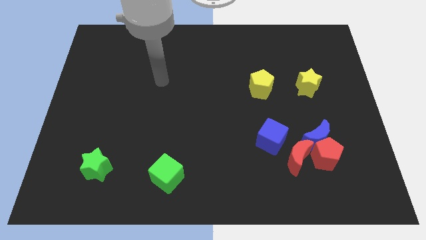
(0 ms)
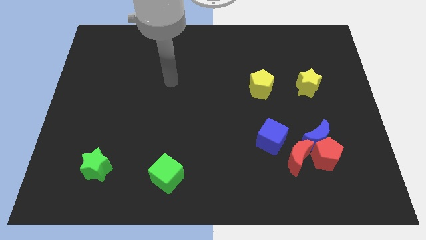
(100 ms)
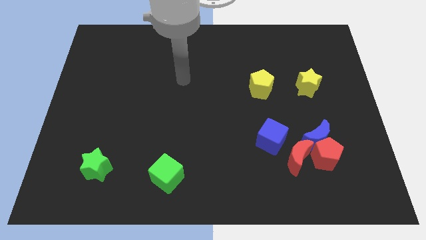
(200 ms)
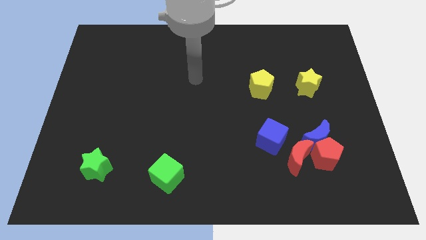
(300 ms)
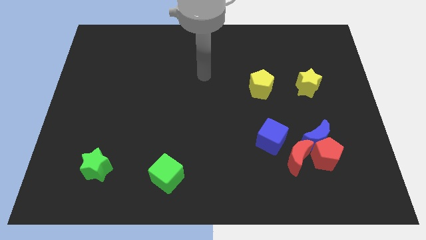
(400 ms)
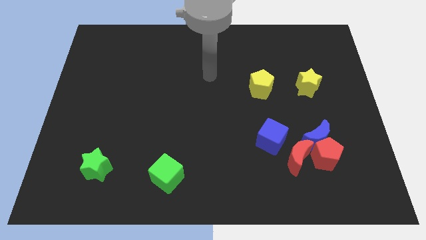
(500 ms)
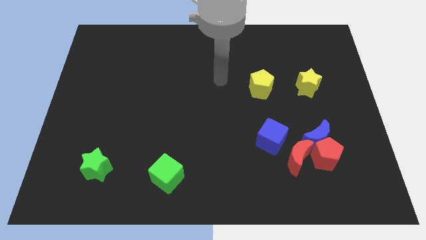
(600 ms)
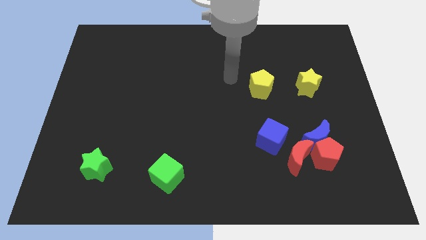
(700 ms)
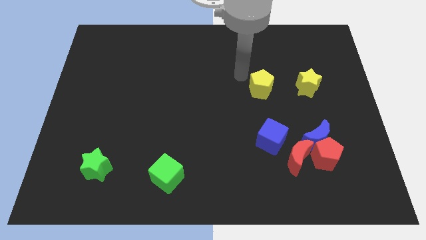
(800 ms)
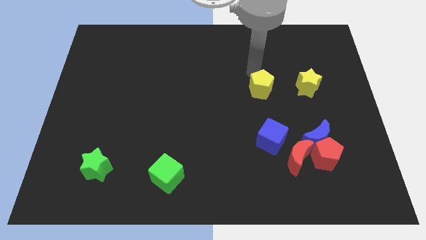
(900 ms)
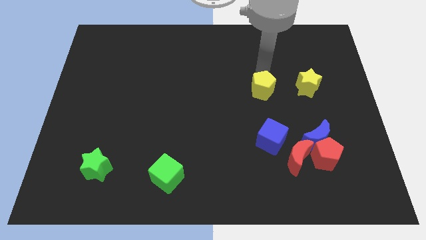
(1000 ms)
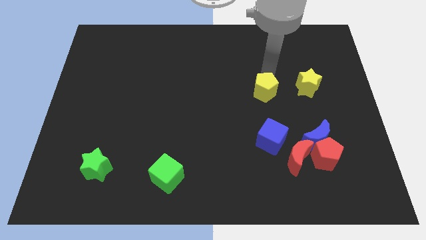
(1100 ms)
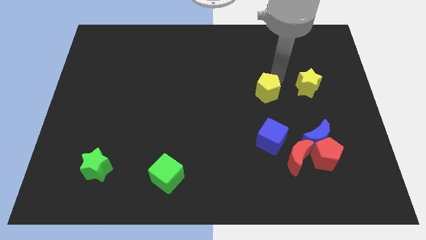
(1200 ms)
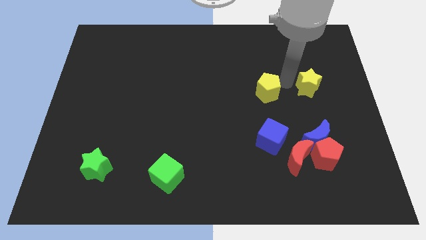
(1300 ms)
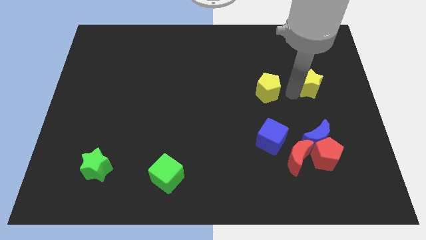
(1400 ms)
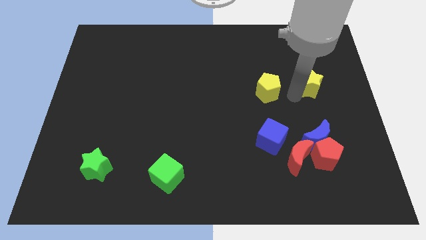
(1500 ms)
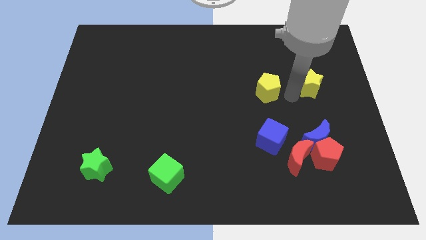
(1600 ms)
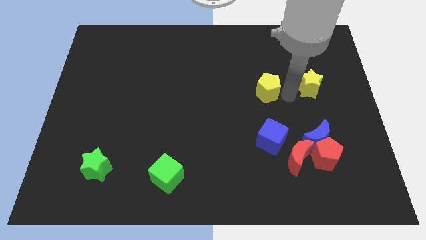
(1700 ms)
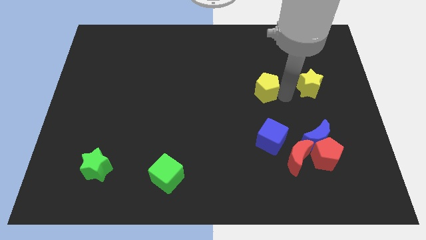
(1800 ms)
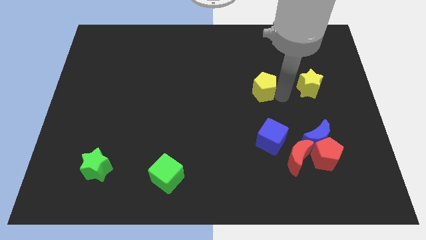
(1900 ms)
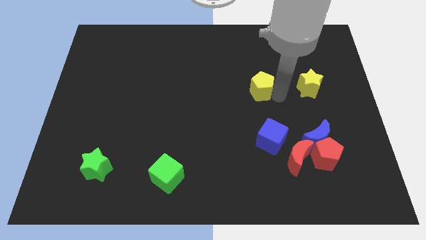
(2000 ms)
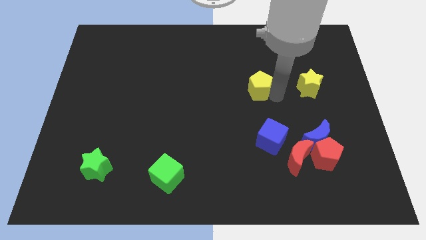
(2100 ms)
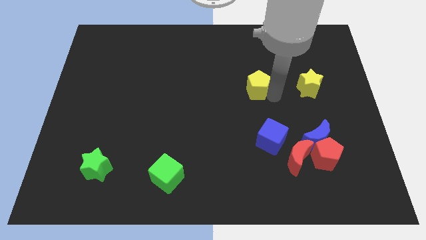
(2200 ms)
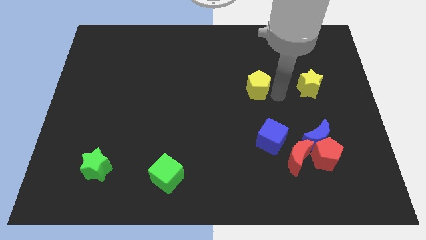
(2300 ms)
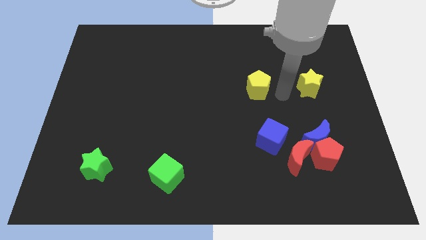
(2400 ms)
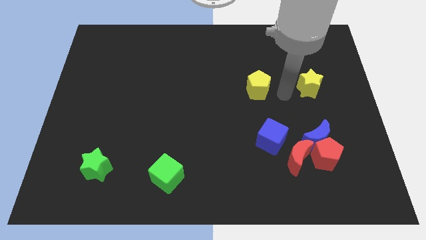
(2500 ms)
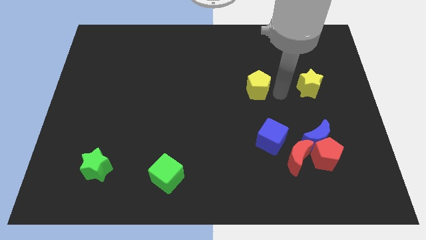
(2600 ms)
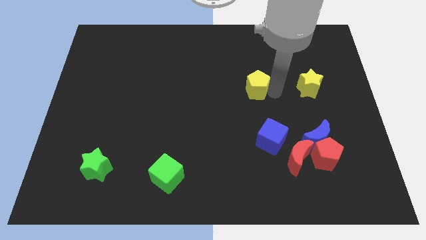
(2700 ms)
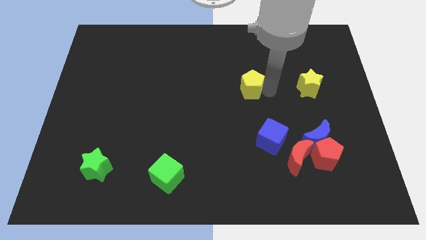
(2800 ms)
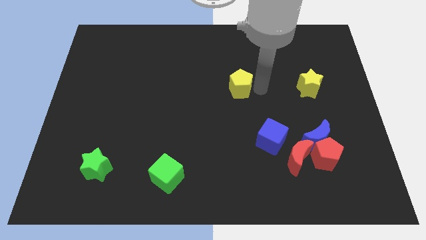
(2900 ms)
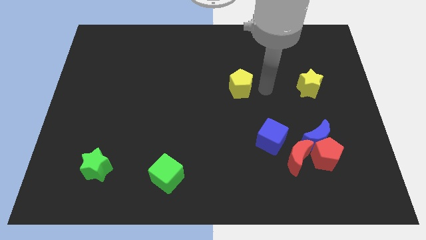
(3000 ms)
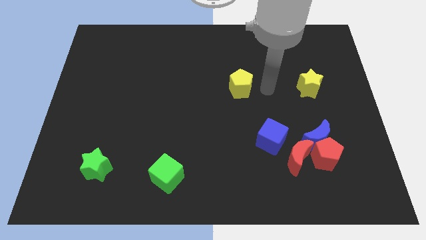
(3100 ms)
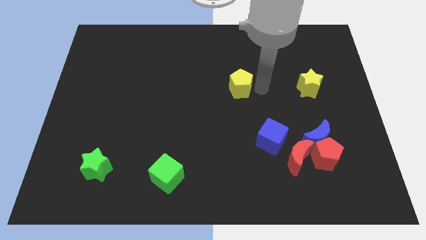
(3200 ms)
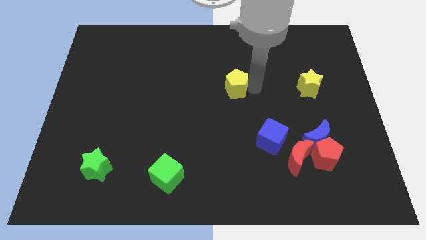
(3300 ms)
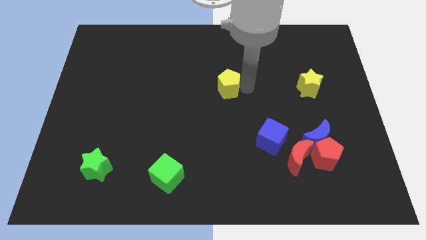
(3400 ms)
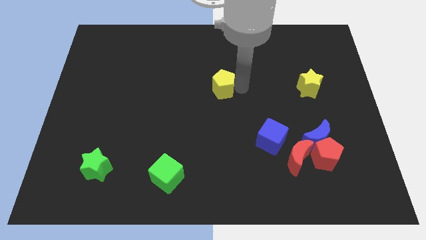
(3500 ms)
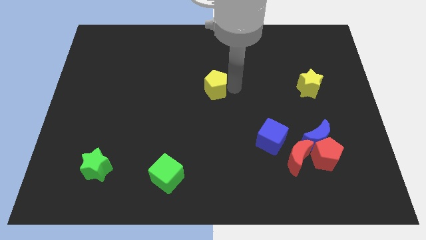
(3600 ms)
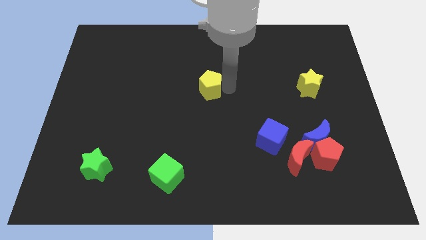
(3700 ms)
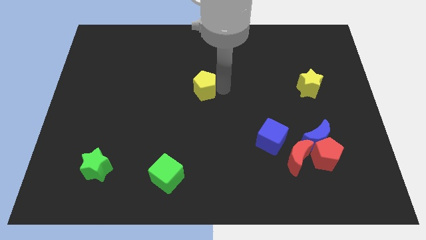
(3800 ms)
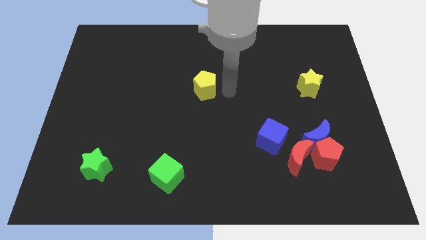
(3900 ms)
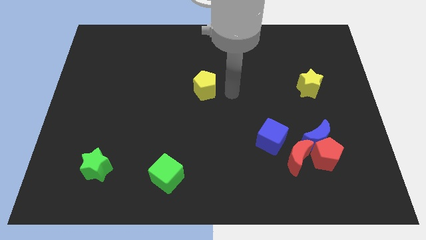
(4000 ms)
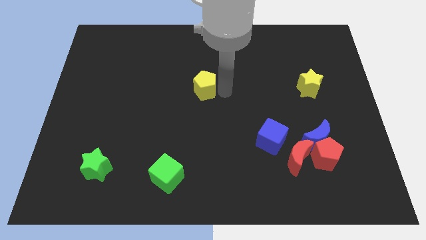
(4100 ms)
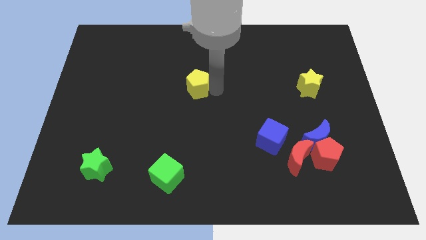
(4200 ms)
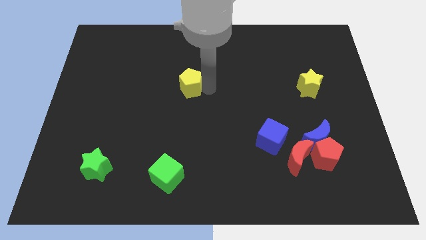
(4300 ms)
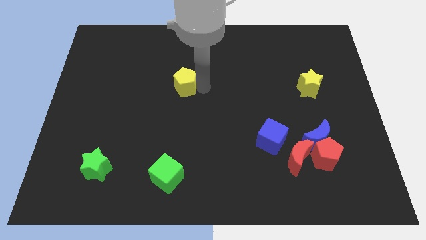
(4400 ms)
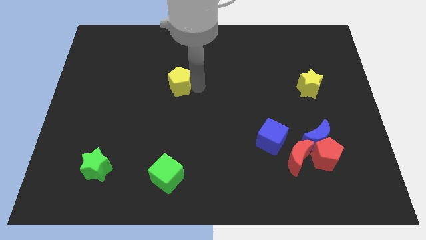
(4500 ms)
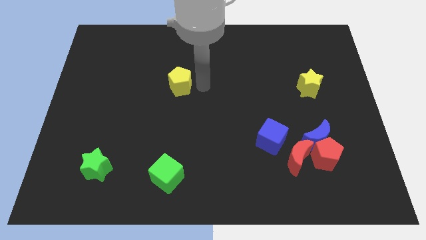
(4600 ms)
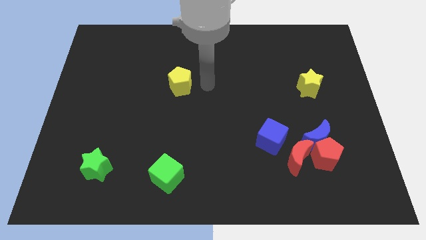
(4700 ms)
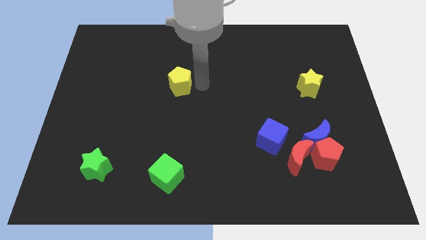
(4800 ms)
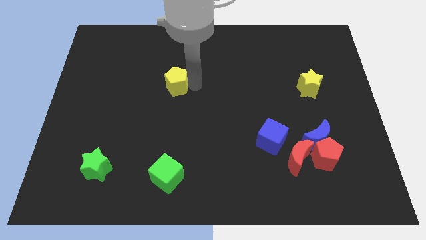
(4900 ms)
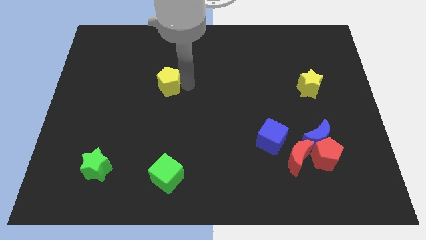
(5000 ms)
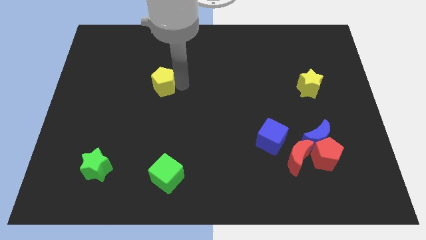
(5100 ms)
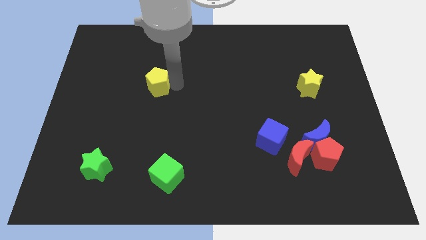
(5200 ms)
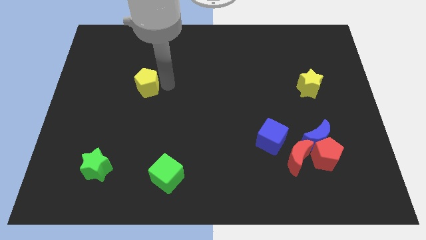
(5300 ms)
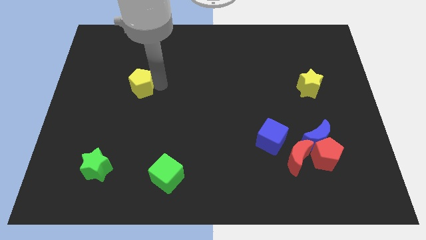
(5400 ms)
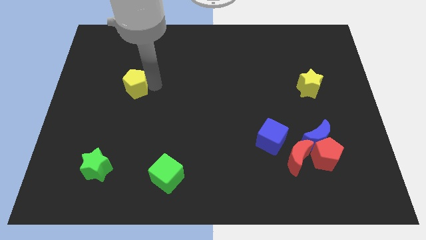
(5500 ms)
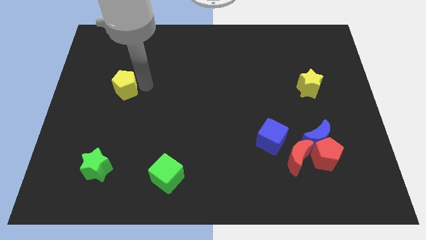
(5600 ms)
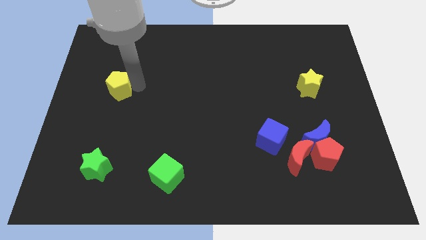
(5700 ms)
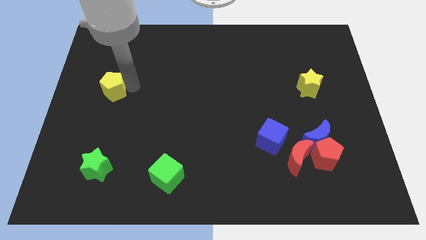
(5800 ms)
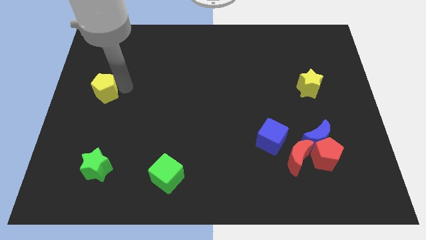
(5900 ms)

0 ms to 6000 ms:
slide the yellow pentagon to the center left

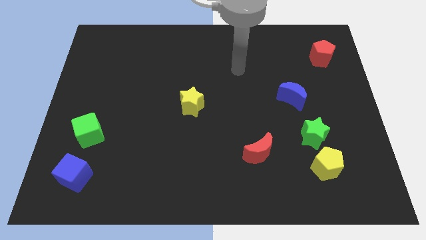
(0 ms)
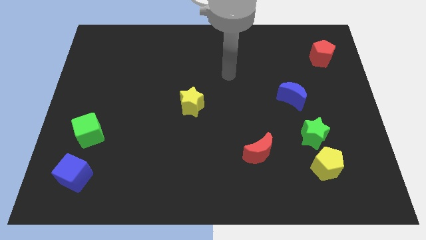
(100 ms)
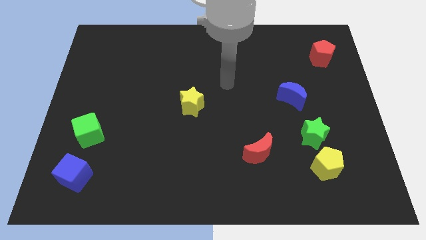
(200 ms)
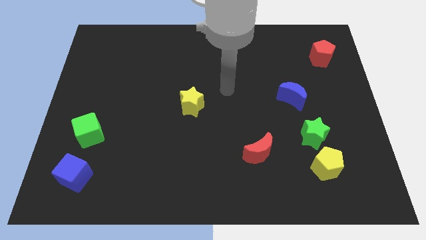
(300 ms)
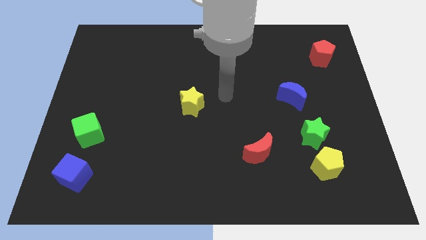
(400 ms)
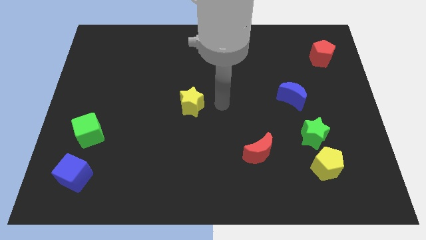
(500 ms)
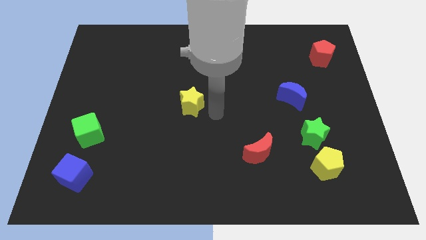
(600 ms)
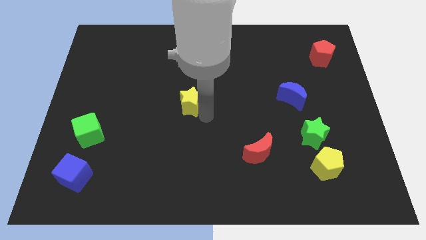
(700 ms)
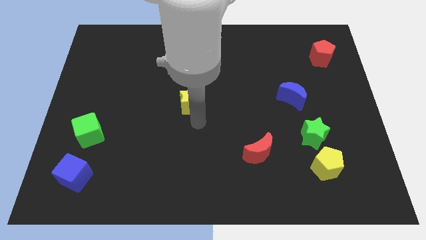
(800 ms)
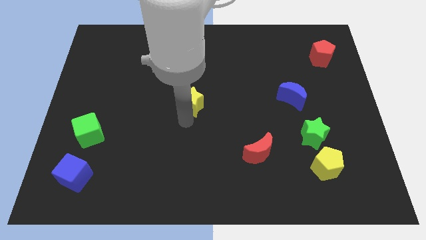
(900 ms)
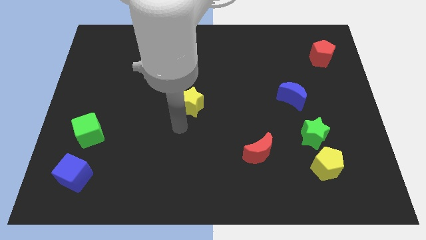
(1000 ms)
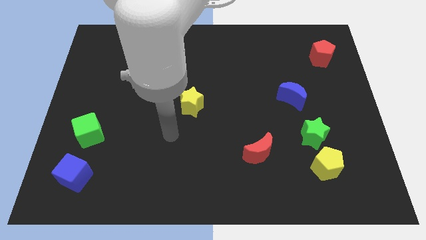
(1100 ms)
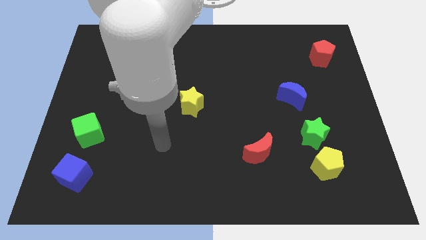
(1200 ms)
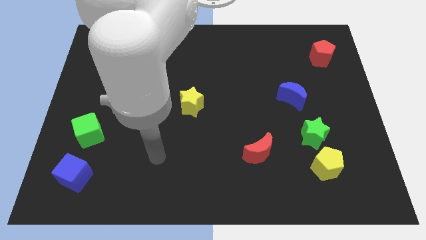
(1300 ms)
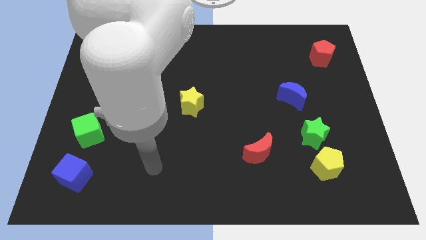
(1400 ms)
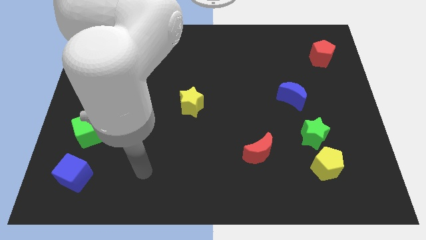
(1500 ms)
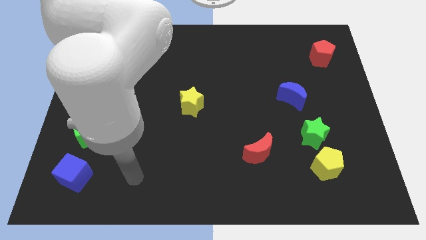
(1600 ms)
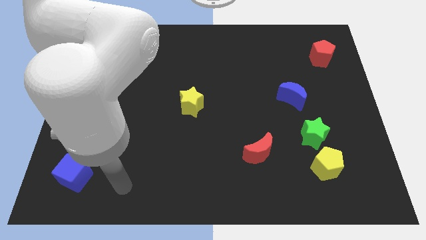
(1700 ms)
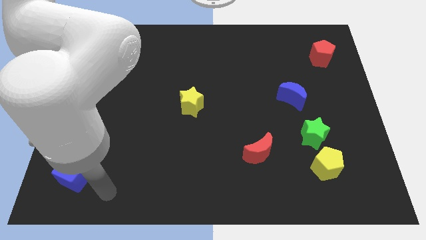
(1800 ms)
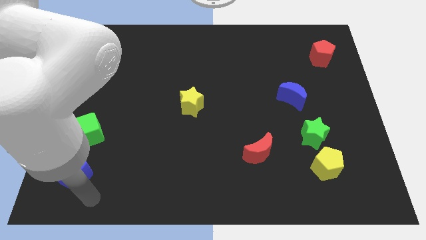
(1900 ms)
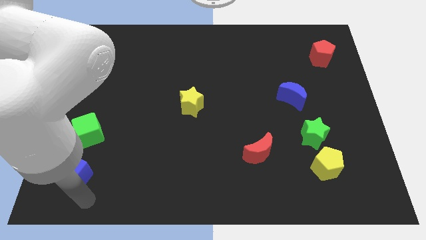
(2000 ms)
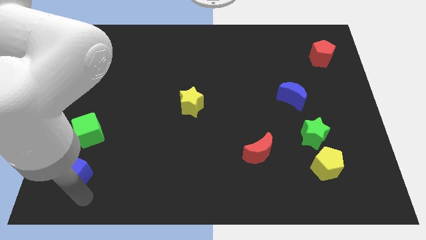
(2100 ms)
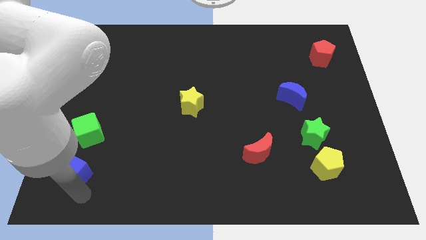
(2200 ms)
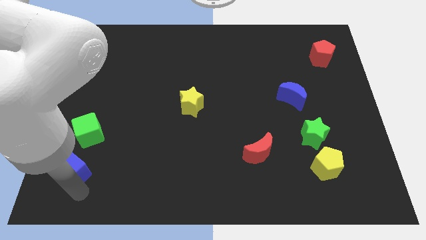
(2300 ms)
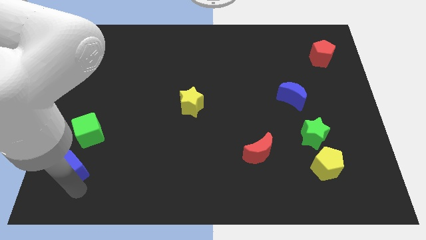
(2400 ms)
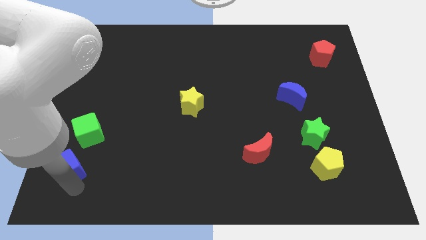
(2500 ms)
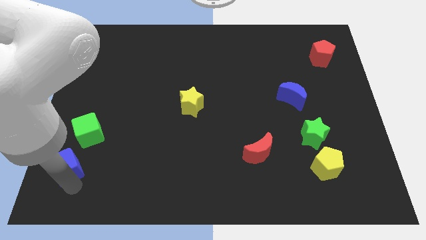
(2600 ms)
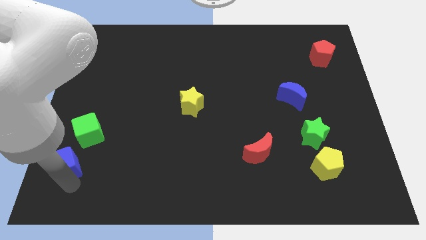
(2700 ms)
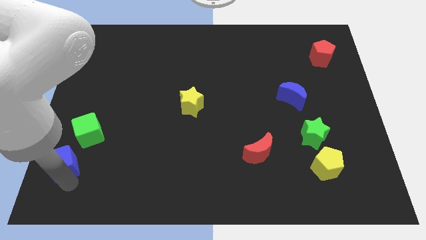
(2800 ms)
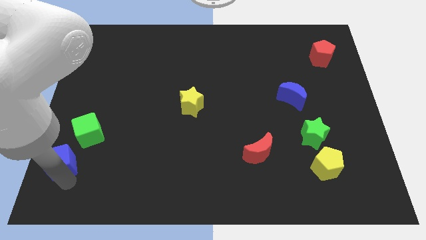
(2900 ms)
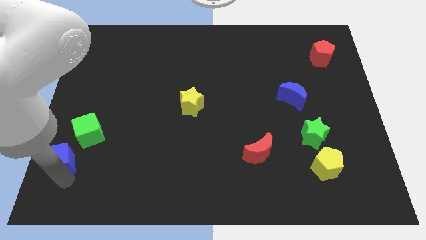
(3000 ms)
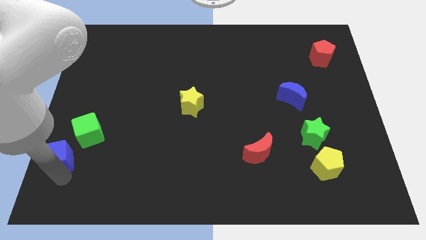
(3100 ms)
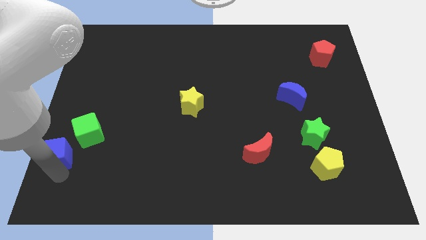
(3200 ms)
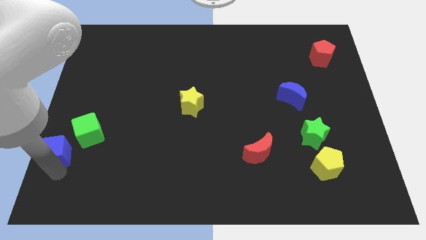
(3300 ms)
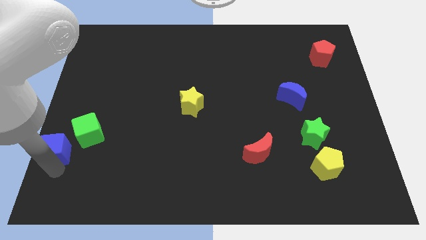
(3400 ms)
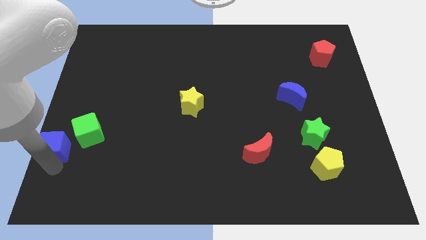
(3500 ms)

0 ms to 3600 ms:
put the blue cube to the center left
